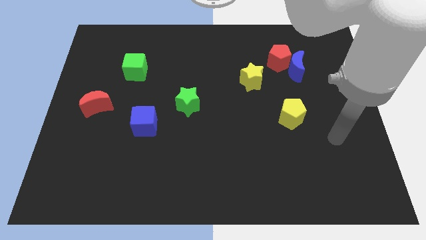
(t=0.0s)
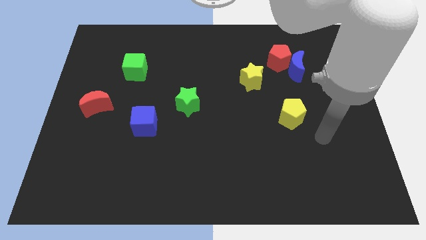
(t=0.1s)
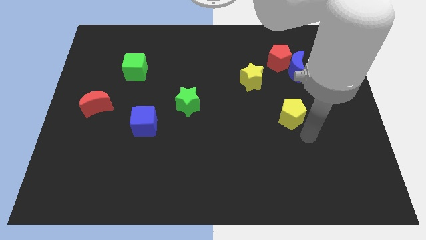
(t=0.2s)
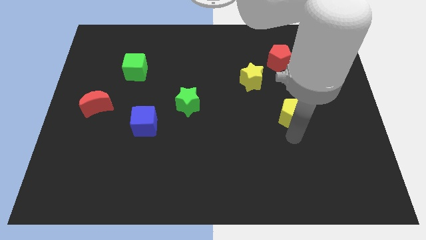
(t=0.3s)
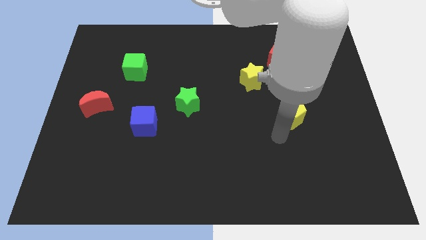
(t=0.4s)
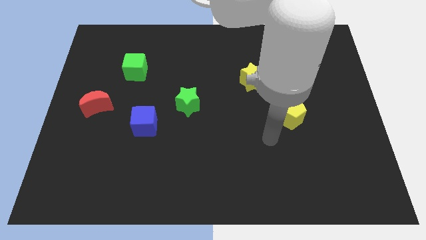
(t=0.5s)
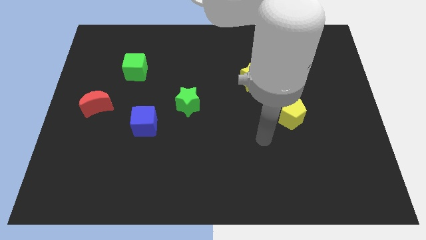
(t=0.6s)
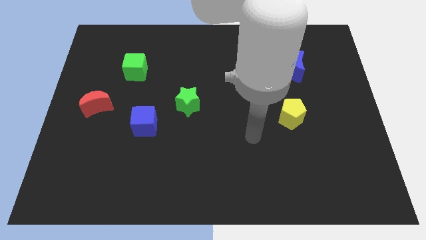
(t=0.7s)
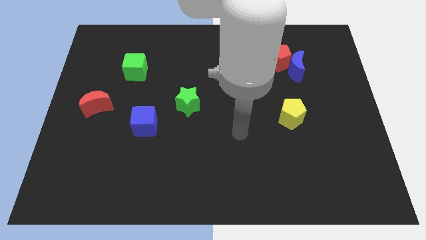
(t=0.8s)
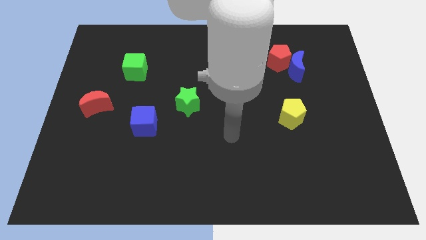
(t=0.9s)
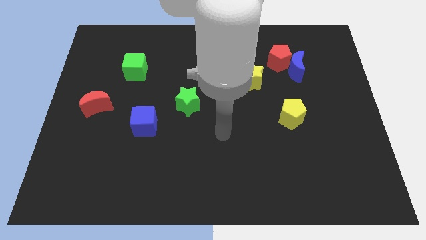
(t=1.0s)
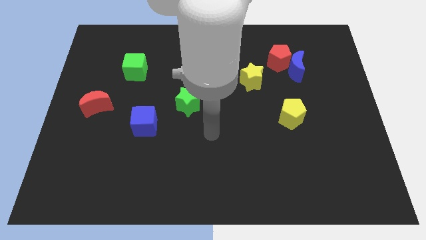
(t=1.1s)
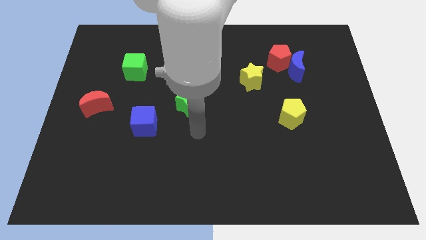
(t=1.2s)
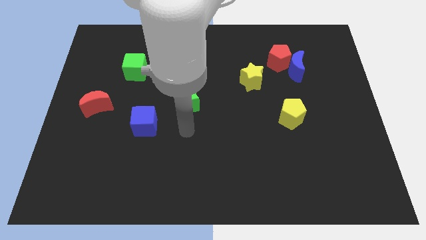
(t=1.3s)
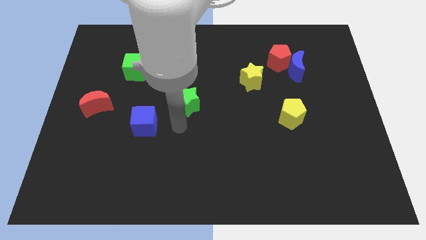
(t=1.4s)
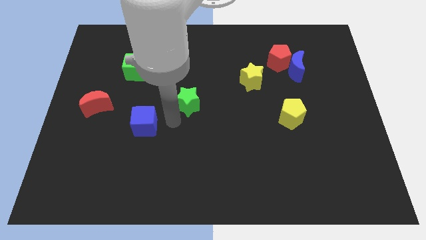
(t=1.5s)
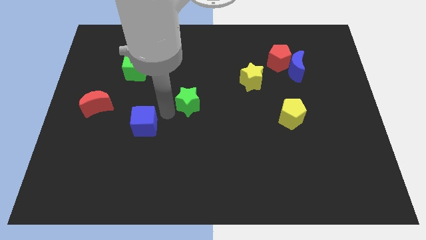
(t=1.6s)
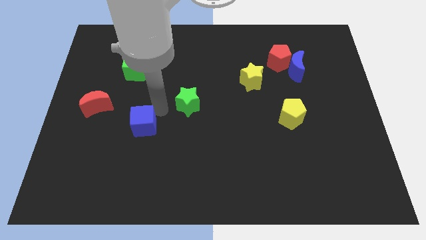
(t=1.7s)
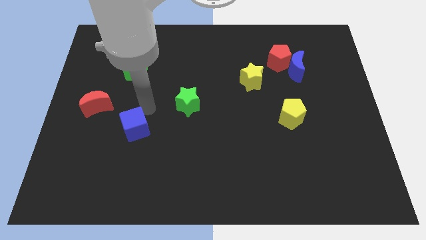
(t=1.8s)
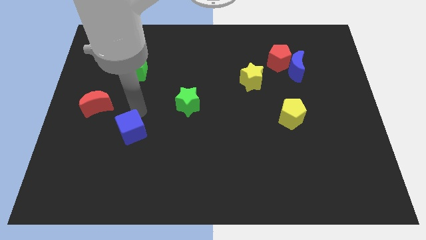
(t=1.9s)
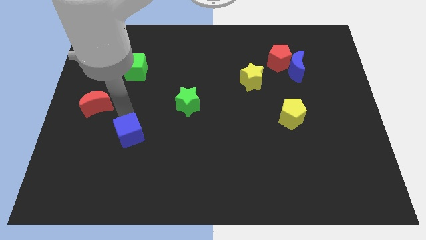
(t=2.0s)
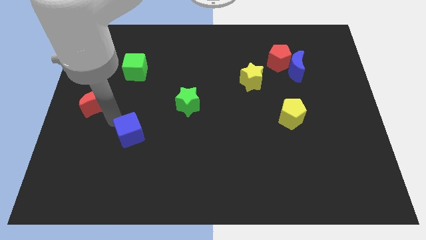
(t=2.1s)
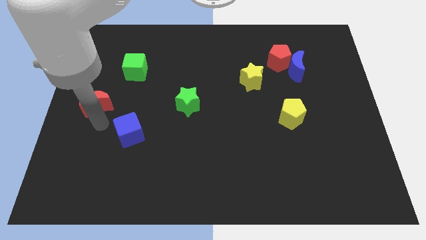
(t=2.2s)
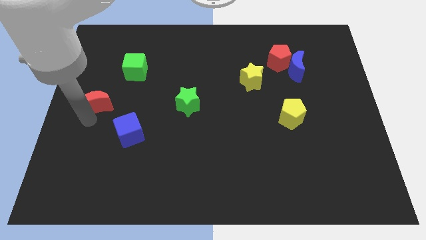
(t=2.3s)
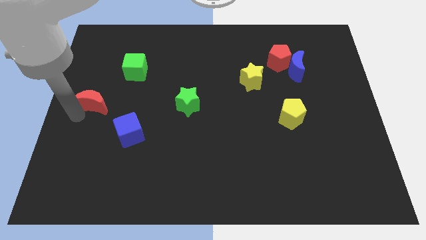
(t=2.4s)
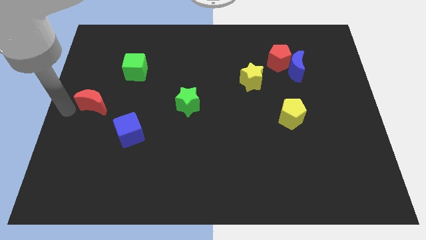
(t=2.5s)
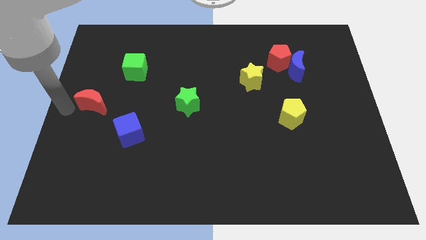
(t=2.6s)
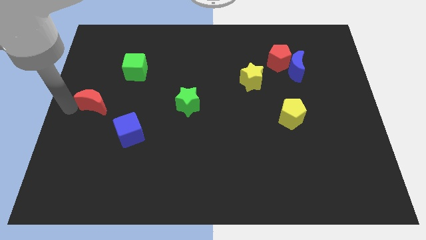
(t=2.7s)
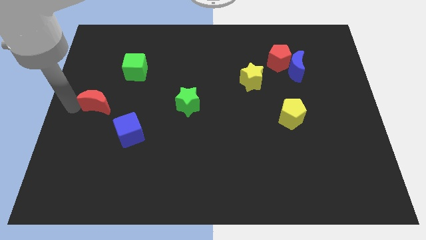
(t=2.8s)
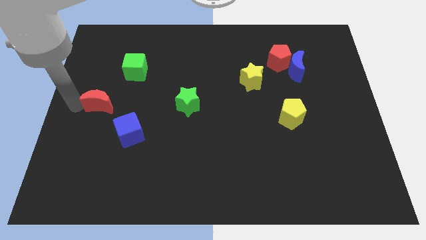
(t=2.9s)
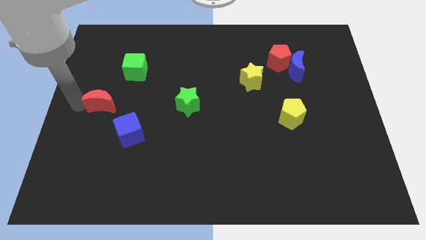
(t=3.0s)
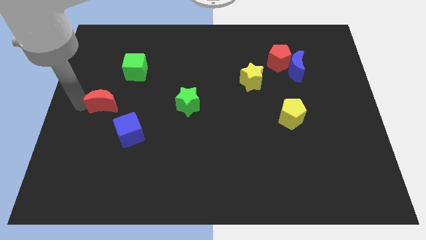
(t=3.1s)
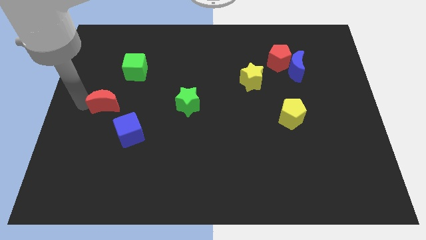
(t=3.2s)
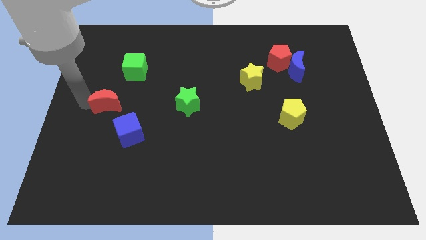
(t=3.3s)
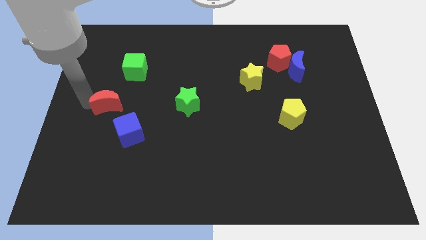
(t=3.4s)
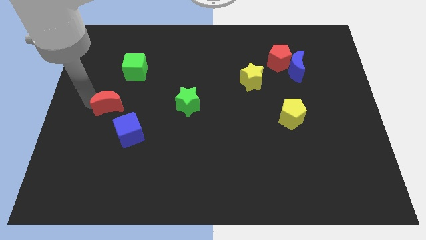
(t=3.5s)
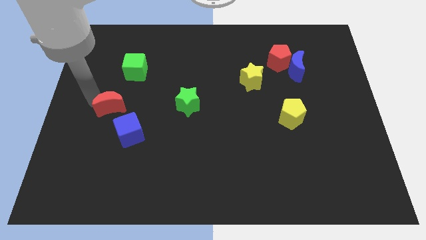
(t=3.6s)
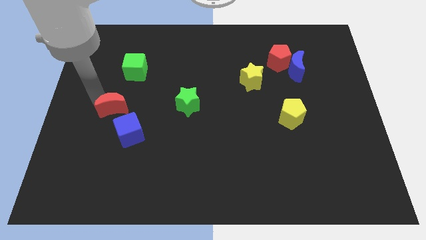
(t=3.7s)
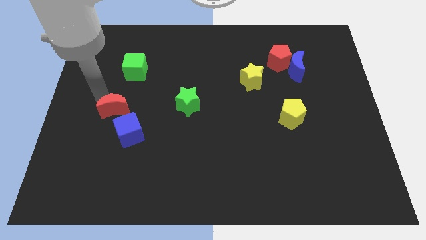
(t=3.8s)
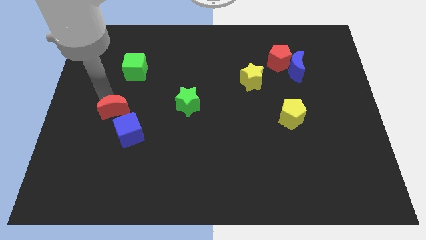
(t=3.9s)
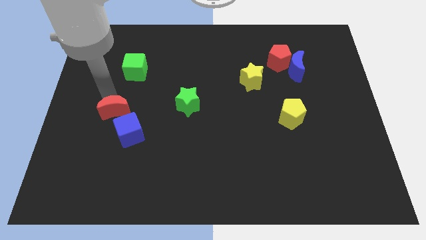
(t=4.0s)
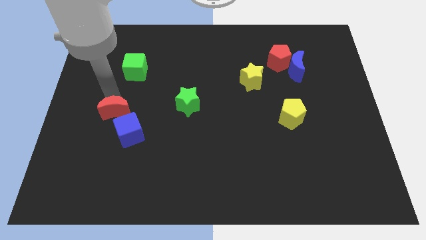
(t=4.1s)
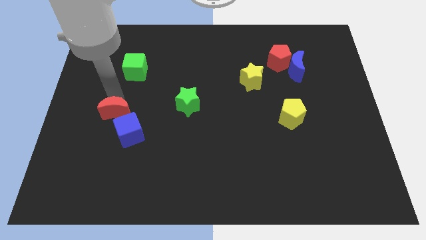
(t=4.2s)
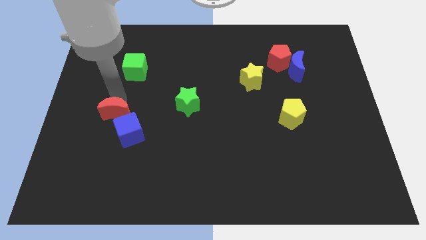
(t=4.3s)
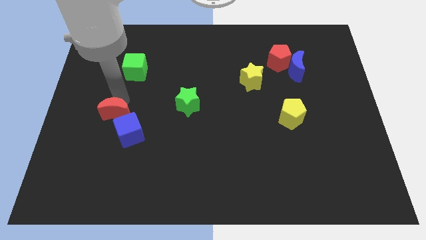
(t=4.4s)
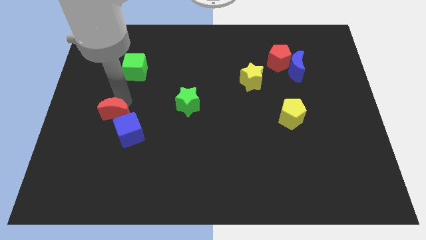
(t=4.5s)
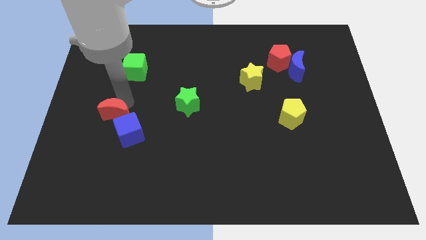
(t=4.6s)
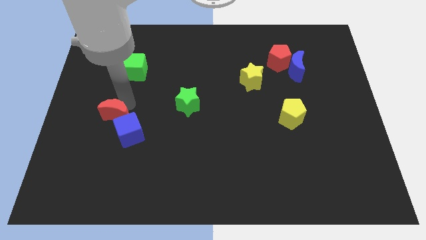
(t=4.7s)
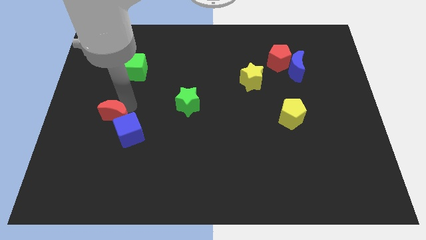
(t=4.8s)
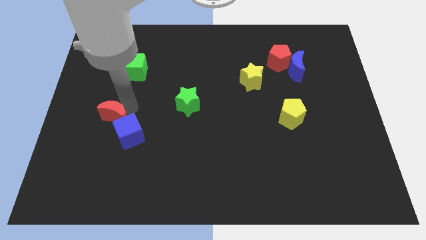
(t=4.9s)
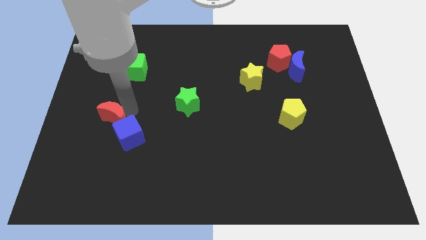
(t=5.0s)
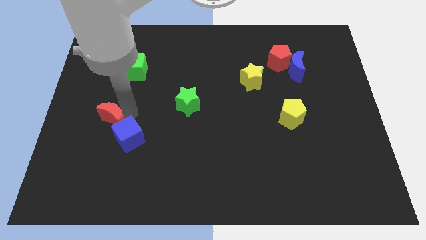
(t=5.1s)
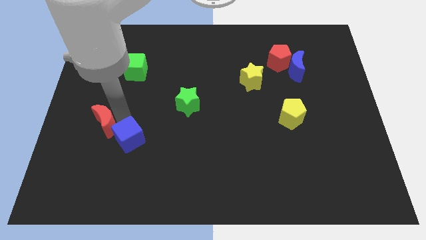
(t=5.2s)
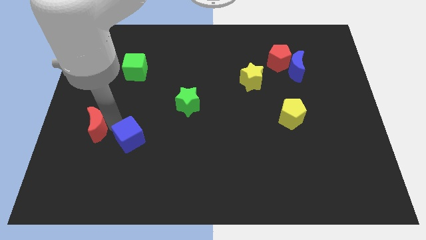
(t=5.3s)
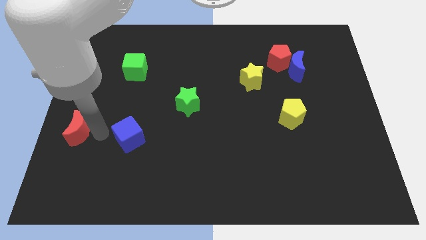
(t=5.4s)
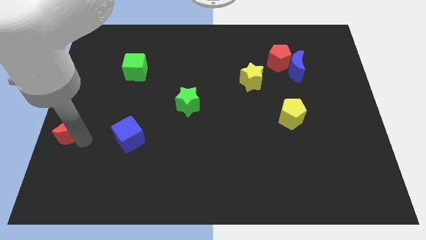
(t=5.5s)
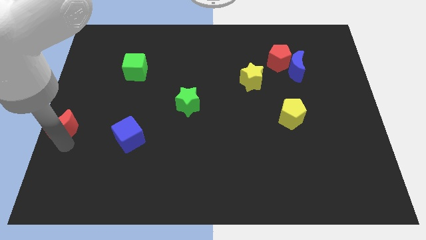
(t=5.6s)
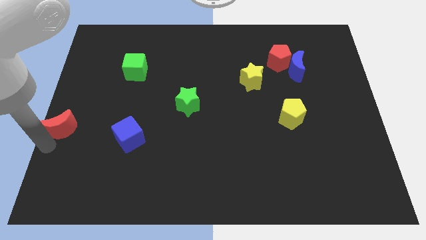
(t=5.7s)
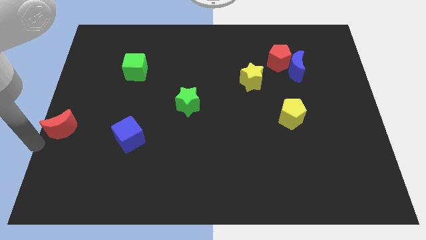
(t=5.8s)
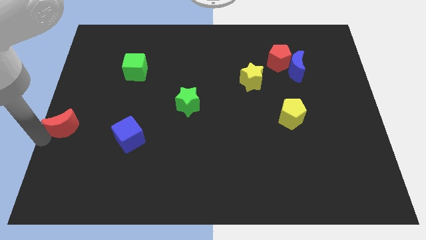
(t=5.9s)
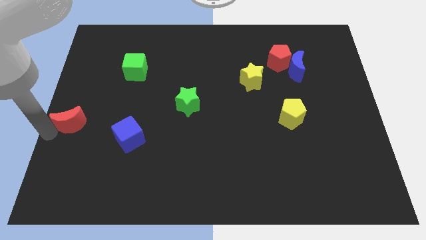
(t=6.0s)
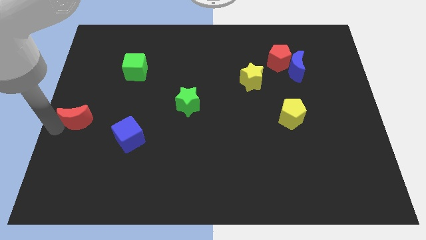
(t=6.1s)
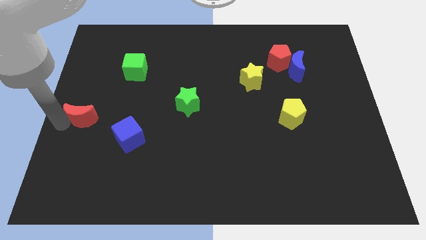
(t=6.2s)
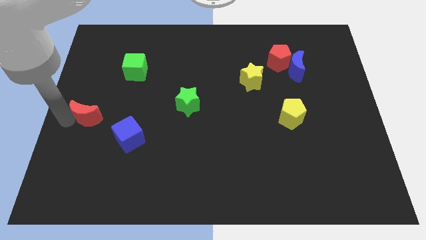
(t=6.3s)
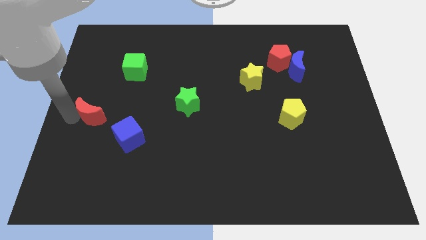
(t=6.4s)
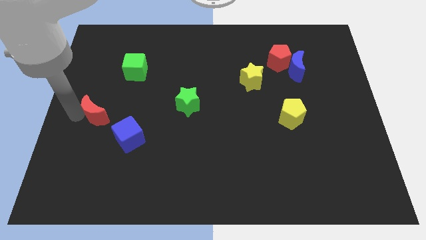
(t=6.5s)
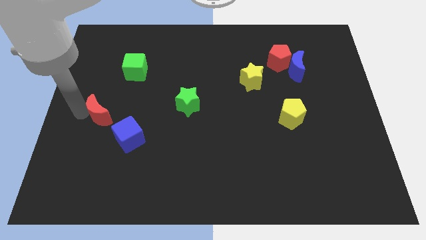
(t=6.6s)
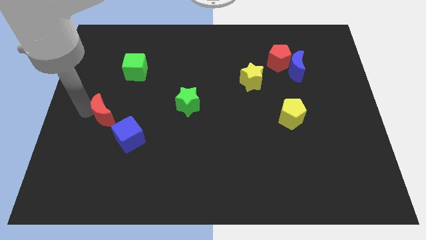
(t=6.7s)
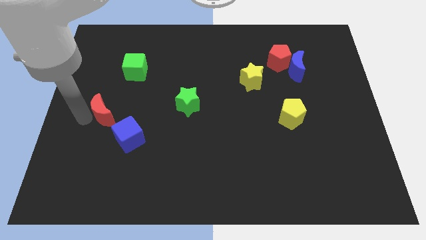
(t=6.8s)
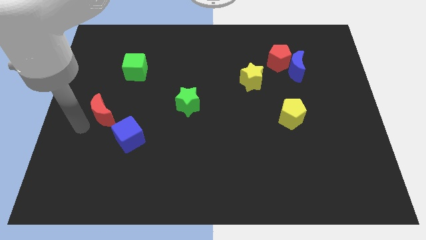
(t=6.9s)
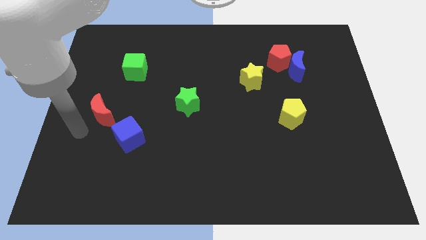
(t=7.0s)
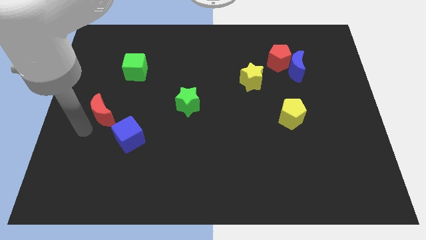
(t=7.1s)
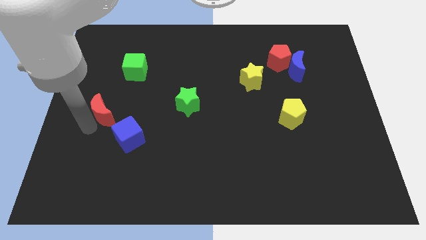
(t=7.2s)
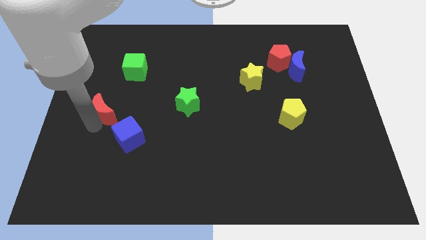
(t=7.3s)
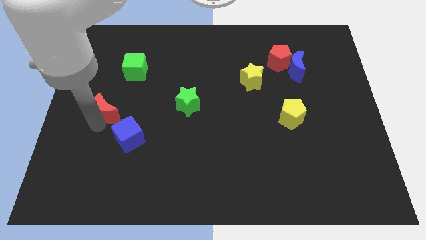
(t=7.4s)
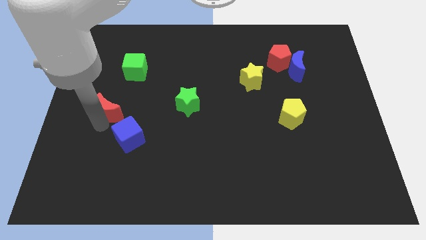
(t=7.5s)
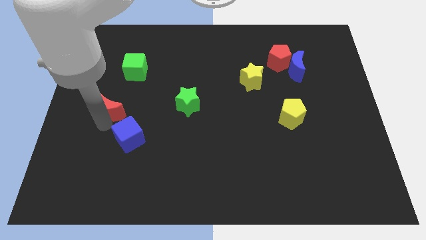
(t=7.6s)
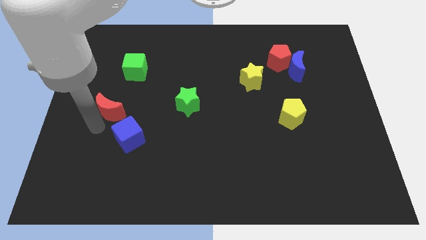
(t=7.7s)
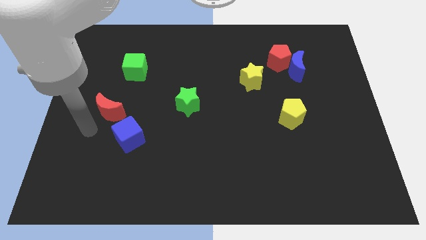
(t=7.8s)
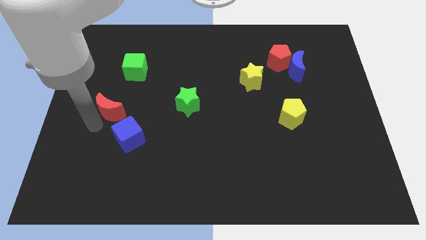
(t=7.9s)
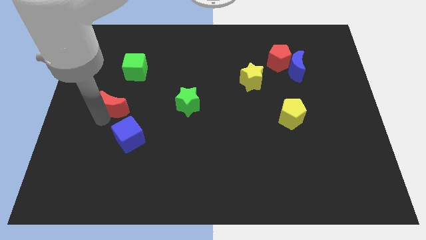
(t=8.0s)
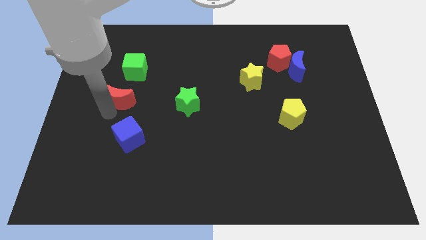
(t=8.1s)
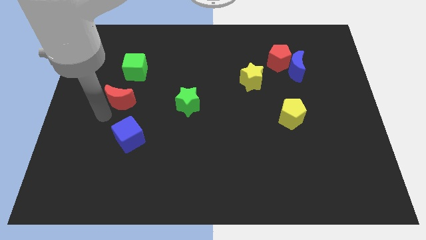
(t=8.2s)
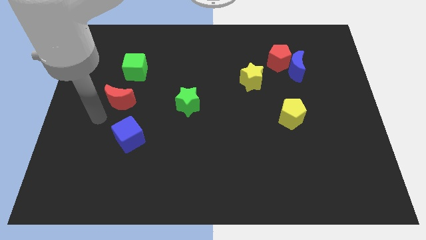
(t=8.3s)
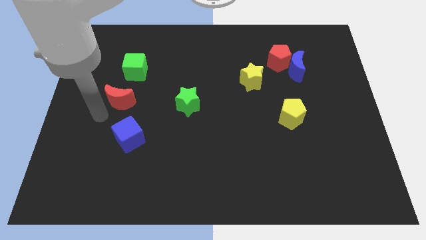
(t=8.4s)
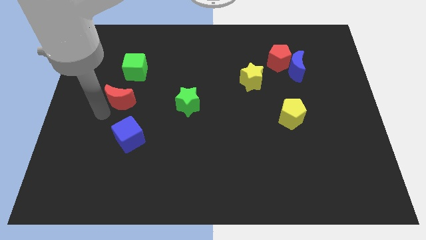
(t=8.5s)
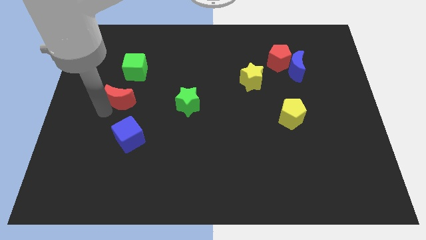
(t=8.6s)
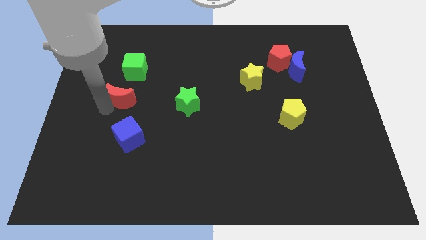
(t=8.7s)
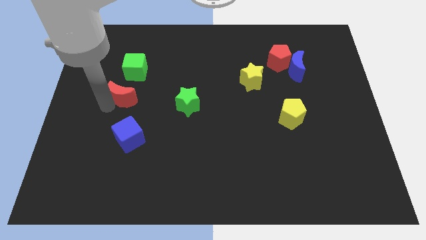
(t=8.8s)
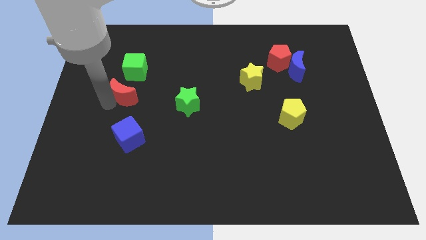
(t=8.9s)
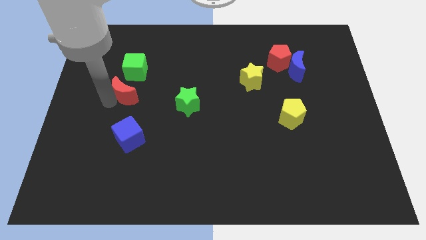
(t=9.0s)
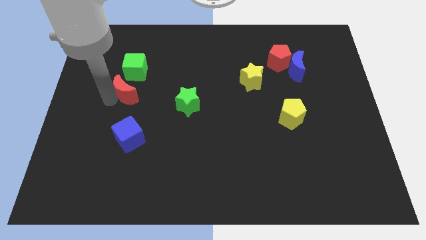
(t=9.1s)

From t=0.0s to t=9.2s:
slide the red moon a little bit up and then to the right
